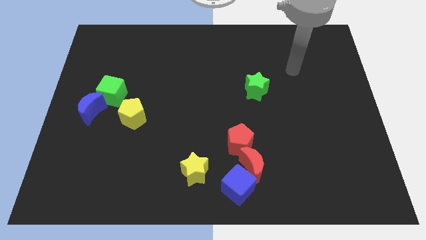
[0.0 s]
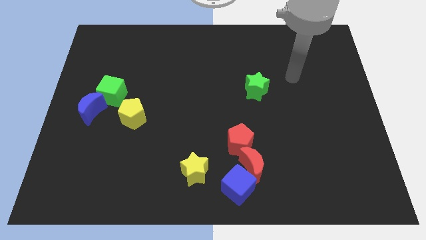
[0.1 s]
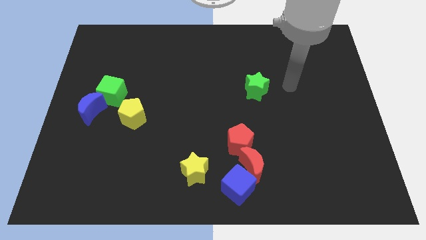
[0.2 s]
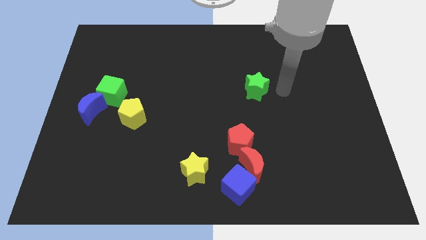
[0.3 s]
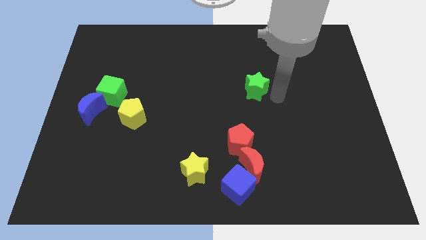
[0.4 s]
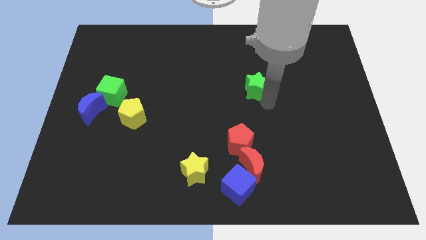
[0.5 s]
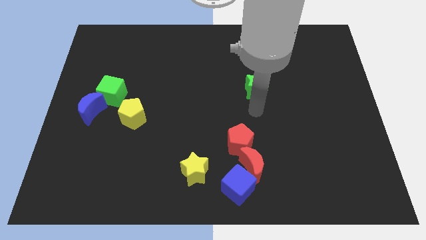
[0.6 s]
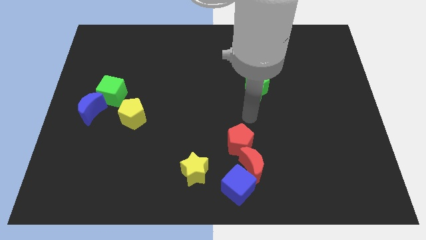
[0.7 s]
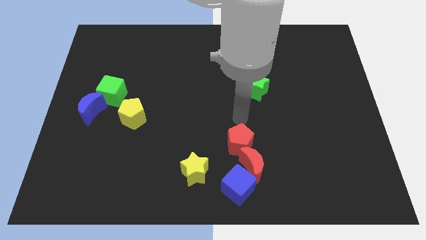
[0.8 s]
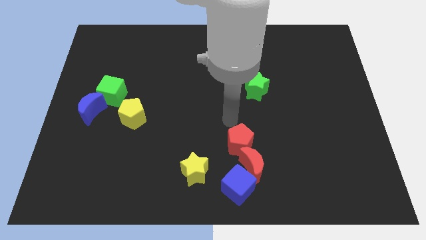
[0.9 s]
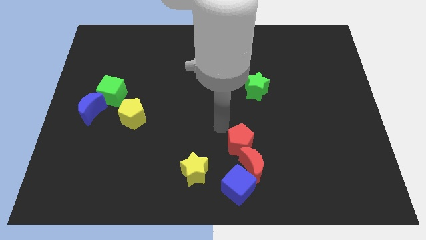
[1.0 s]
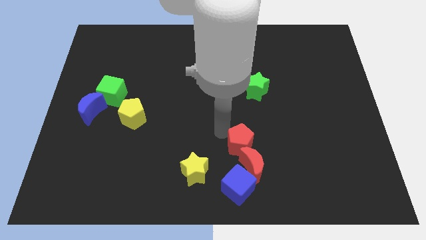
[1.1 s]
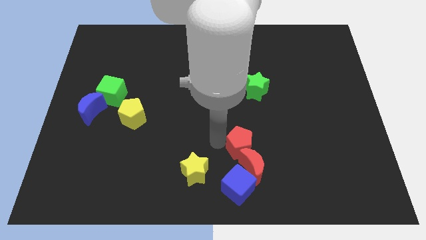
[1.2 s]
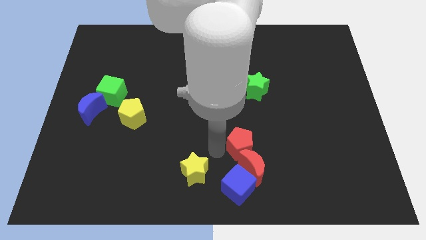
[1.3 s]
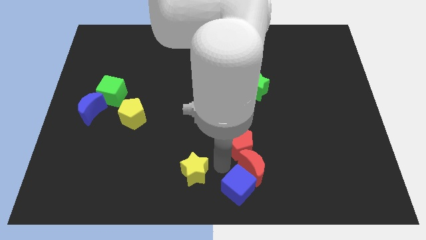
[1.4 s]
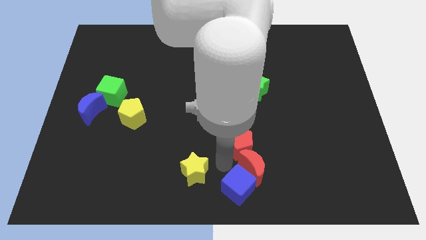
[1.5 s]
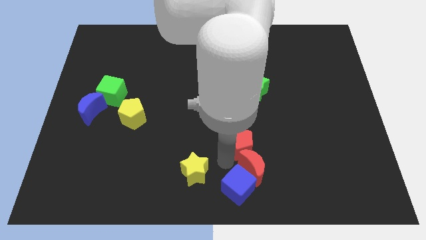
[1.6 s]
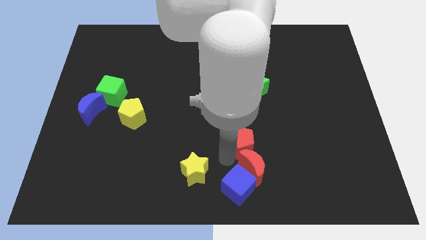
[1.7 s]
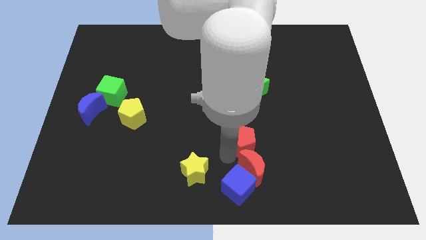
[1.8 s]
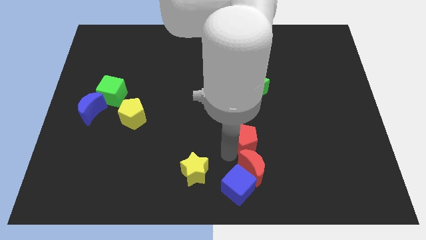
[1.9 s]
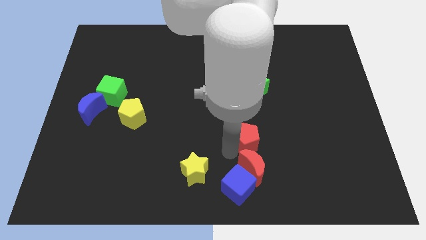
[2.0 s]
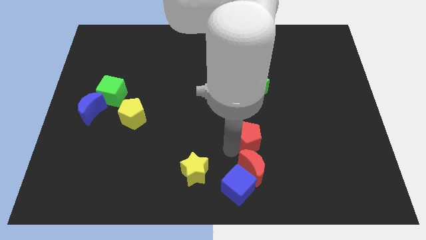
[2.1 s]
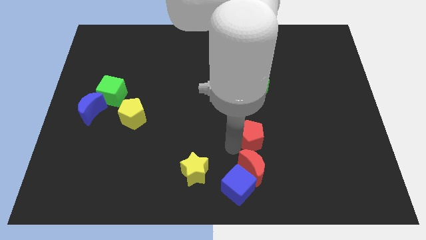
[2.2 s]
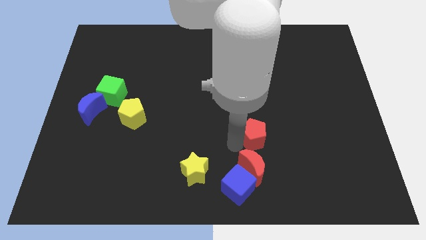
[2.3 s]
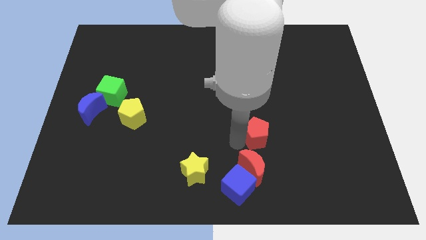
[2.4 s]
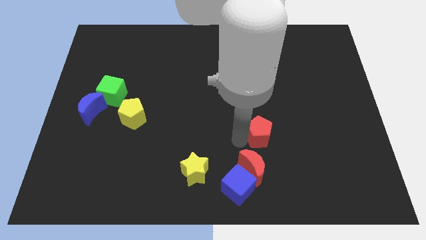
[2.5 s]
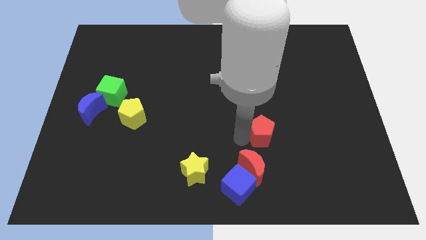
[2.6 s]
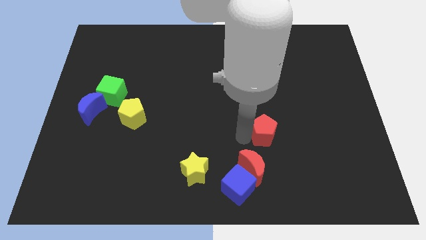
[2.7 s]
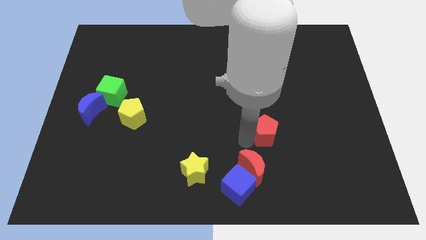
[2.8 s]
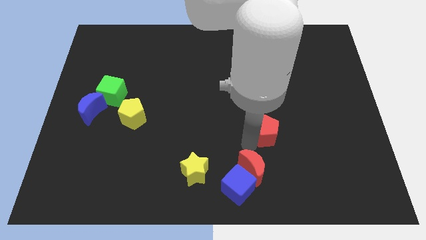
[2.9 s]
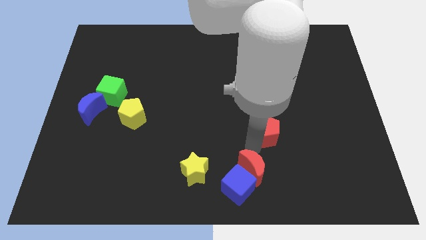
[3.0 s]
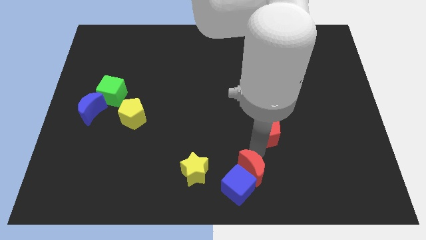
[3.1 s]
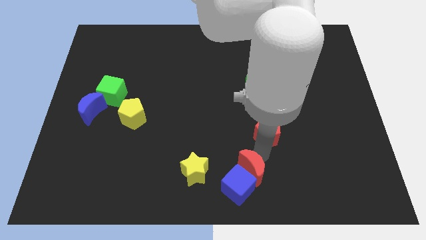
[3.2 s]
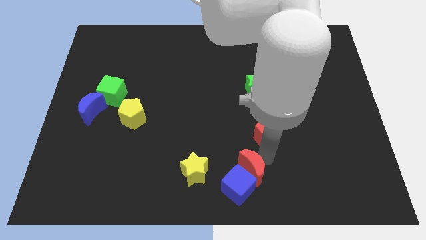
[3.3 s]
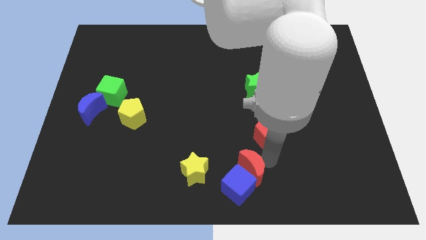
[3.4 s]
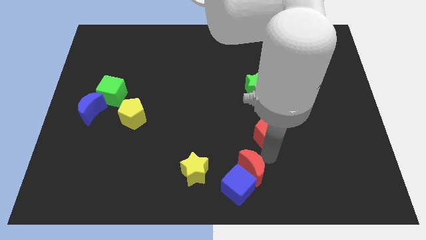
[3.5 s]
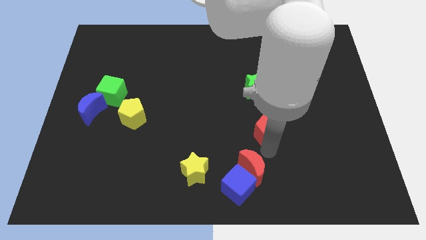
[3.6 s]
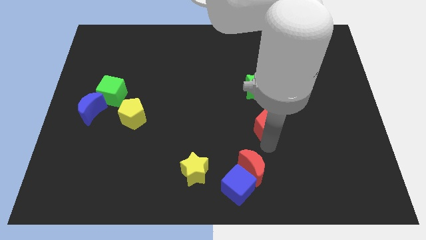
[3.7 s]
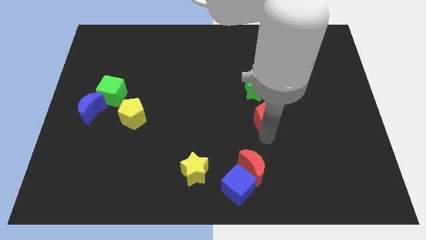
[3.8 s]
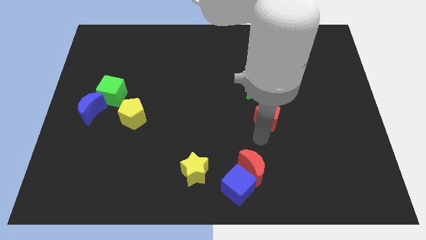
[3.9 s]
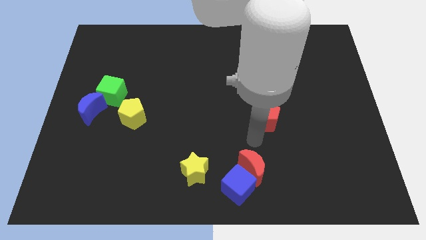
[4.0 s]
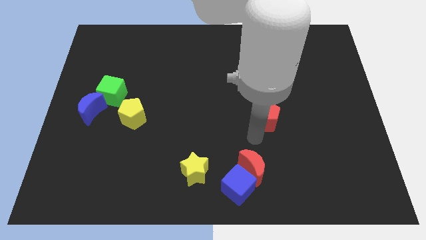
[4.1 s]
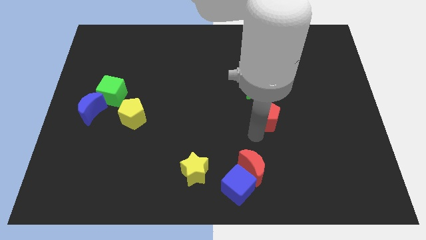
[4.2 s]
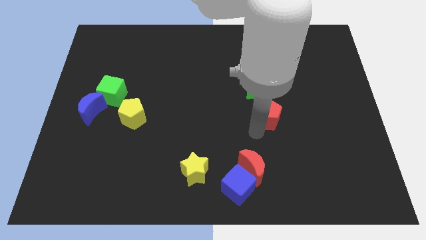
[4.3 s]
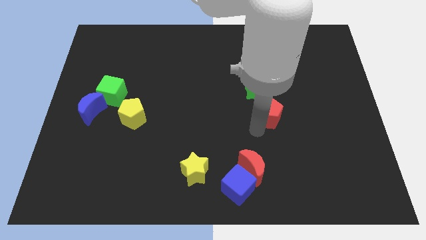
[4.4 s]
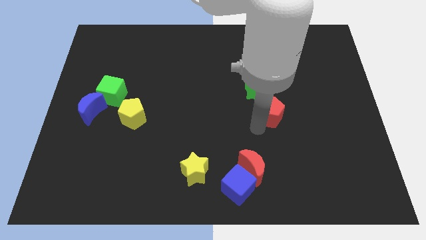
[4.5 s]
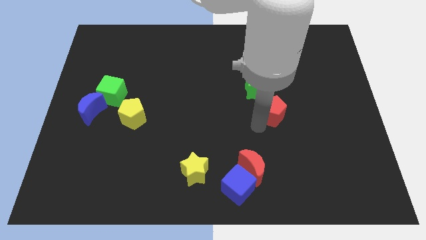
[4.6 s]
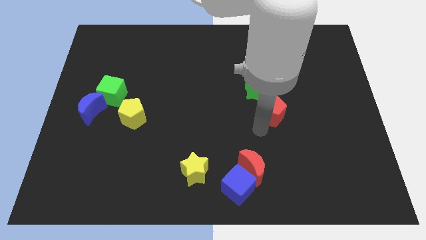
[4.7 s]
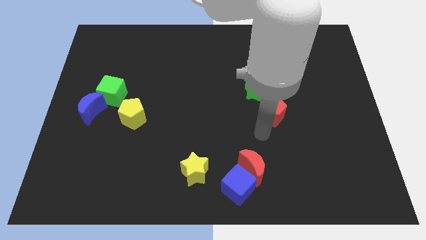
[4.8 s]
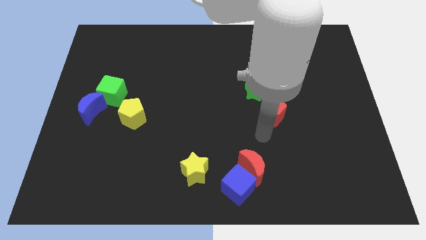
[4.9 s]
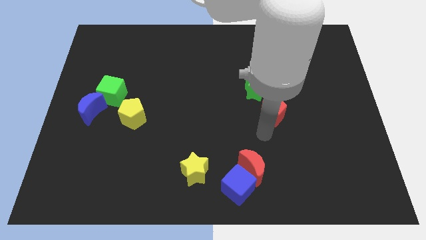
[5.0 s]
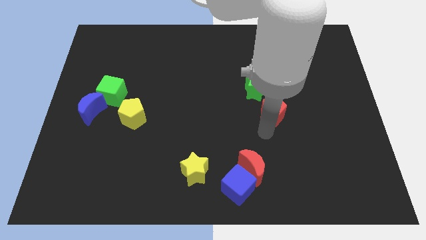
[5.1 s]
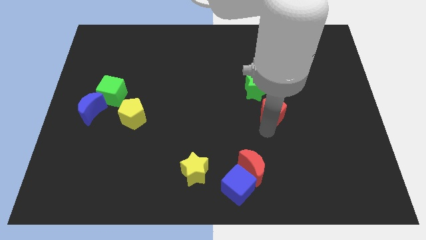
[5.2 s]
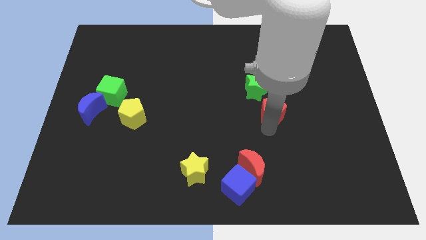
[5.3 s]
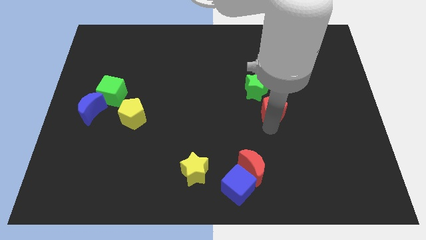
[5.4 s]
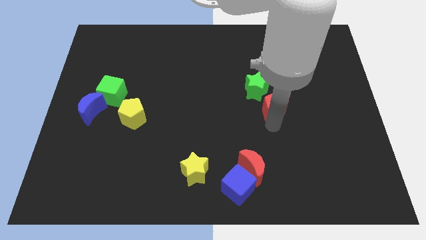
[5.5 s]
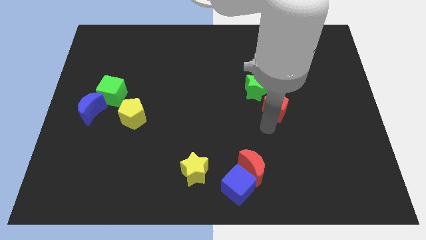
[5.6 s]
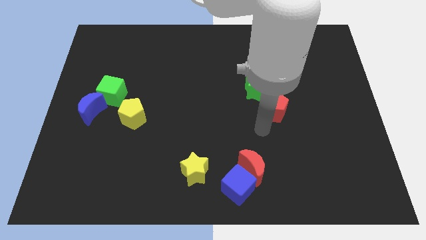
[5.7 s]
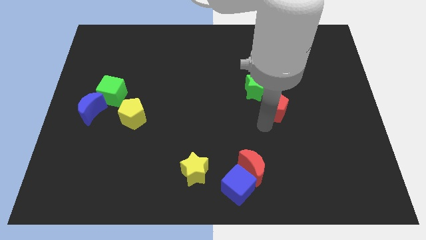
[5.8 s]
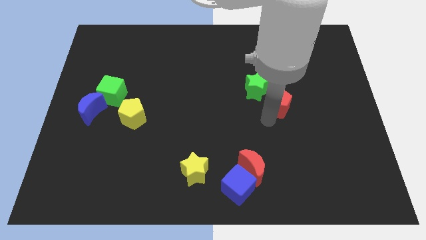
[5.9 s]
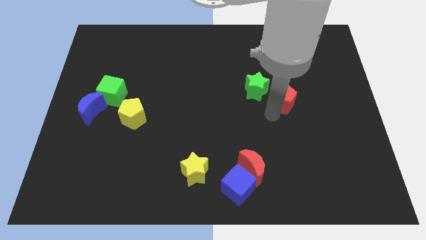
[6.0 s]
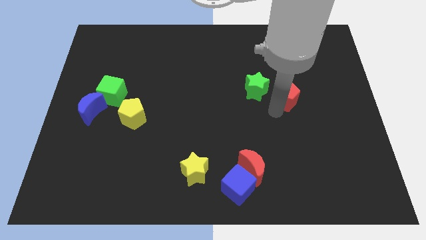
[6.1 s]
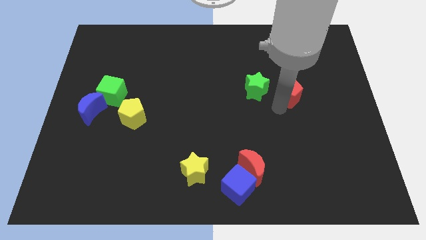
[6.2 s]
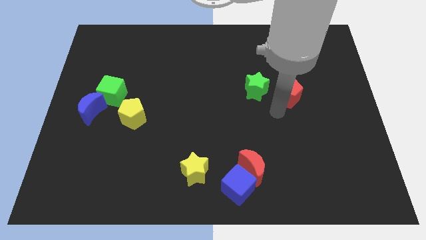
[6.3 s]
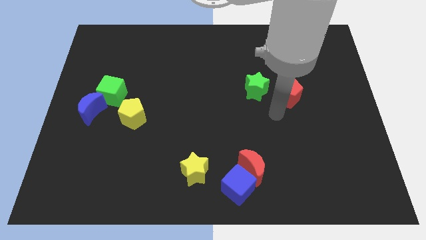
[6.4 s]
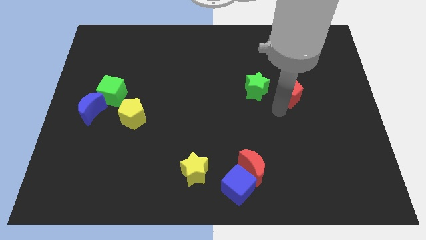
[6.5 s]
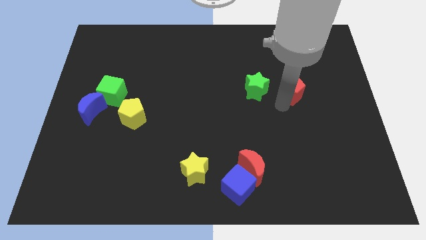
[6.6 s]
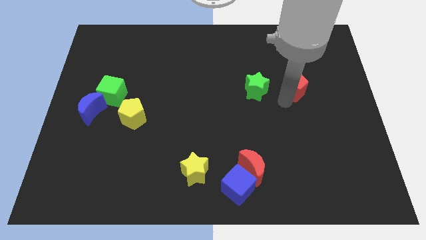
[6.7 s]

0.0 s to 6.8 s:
slide the red pentagon upwards and to the right

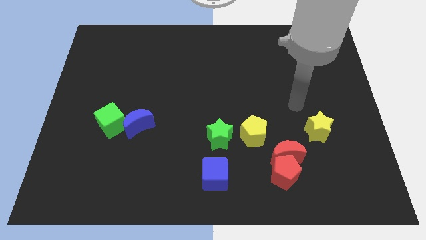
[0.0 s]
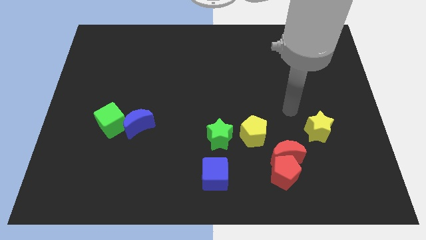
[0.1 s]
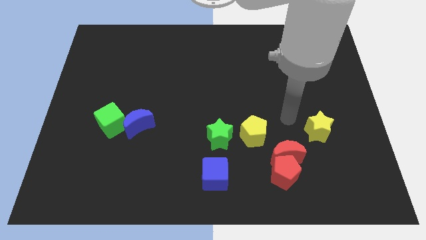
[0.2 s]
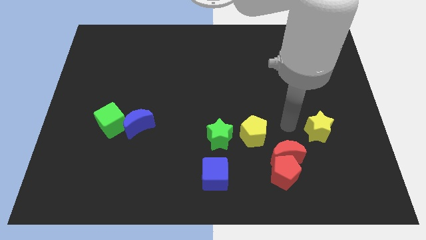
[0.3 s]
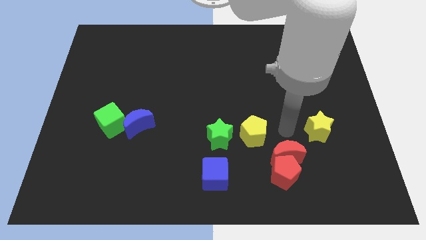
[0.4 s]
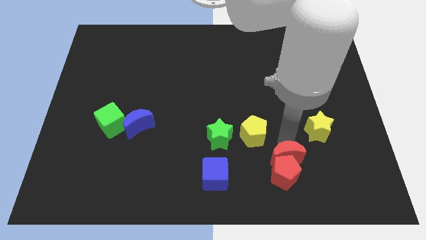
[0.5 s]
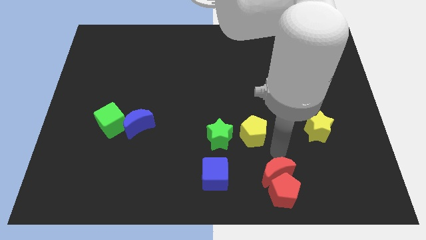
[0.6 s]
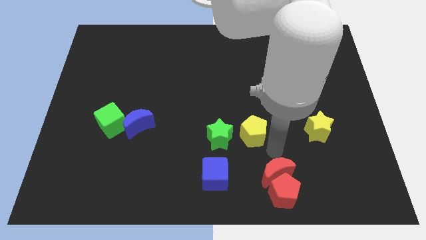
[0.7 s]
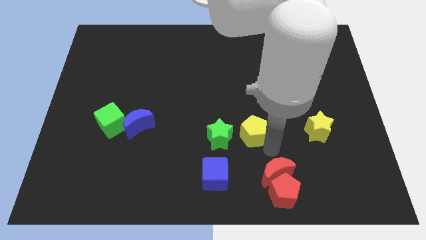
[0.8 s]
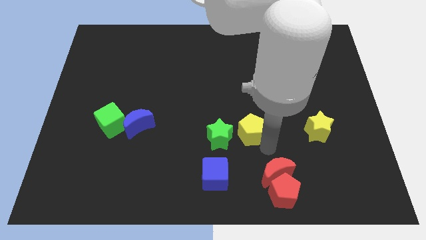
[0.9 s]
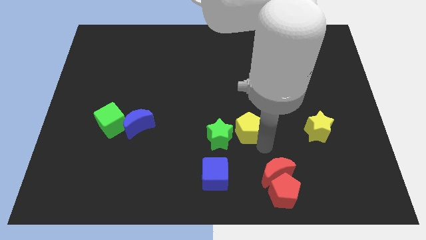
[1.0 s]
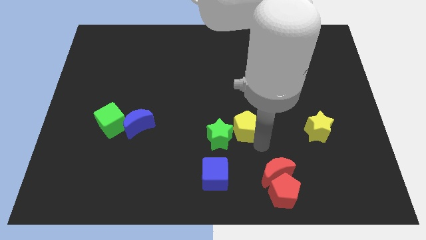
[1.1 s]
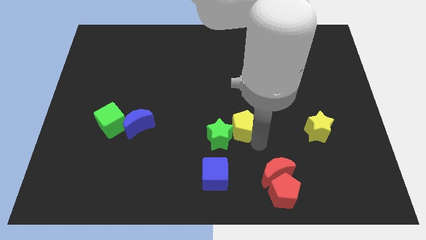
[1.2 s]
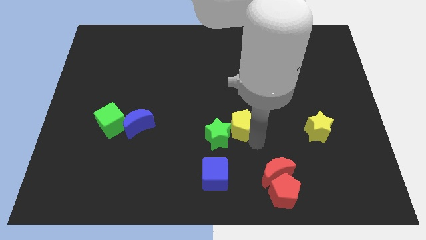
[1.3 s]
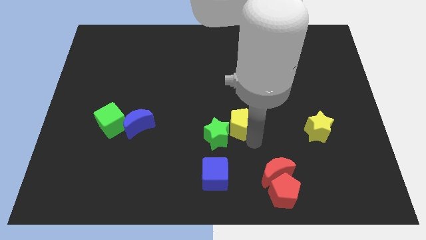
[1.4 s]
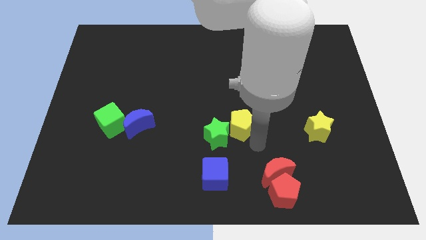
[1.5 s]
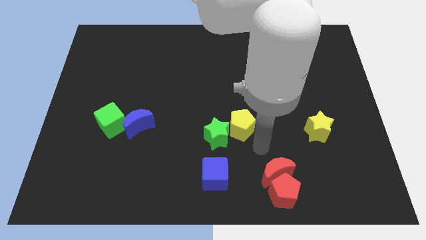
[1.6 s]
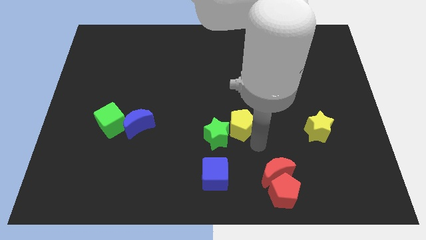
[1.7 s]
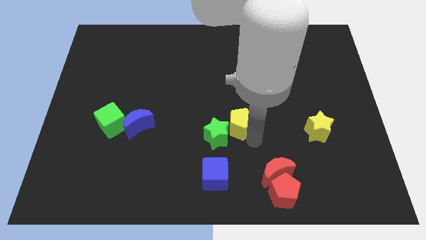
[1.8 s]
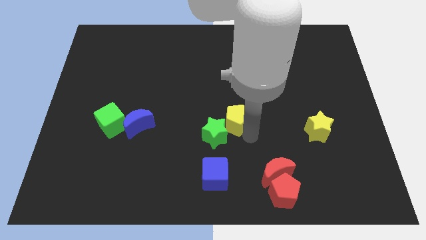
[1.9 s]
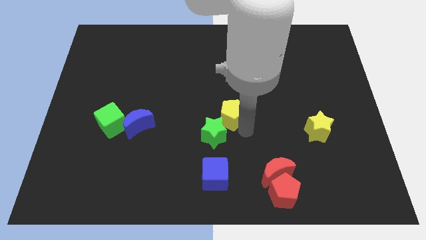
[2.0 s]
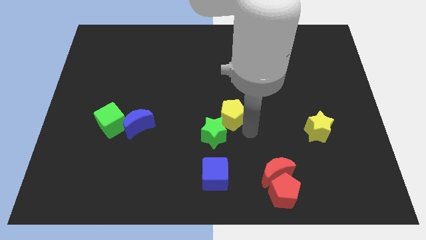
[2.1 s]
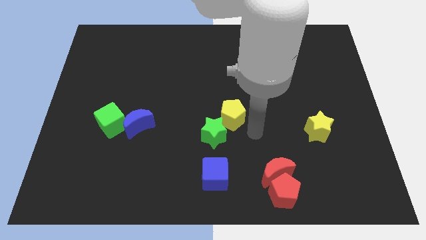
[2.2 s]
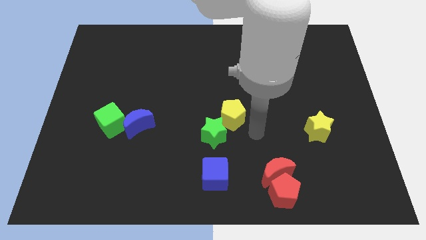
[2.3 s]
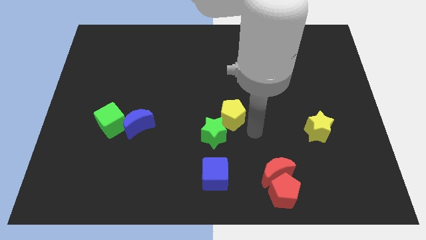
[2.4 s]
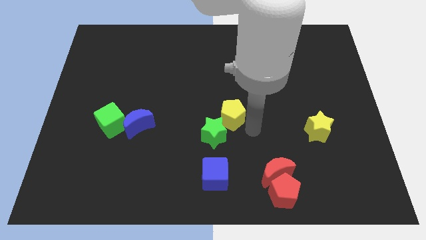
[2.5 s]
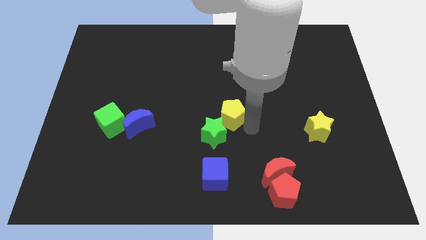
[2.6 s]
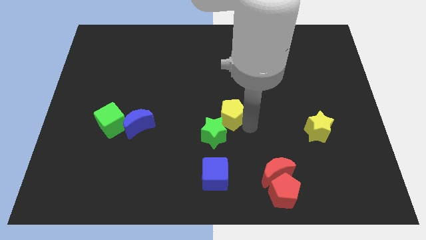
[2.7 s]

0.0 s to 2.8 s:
slide the yellow pentagon upwards and left somewhat
